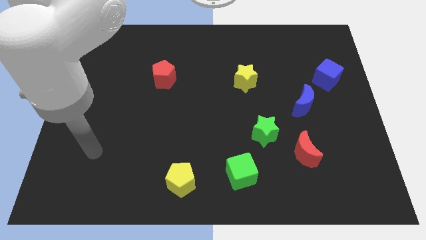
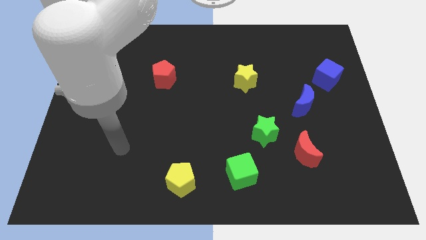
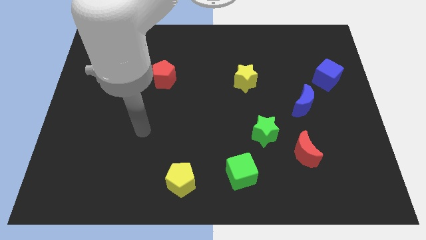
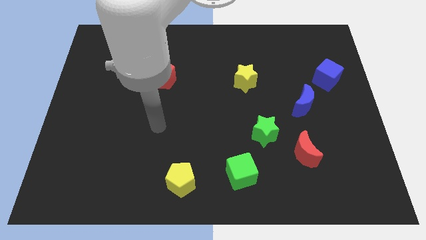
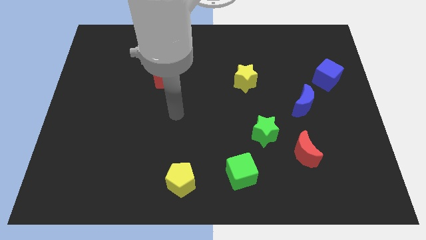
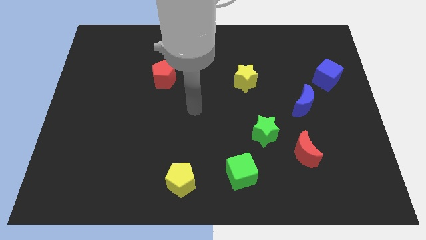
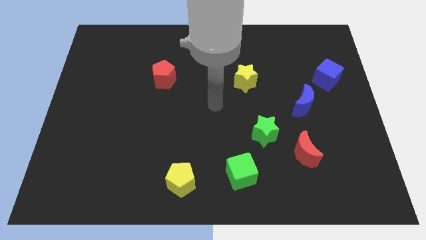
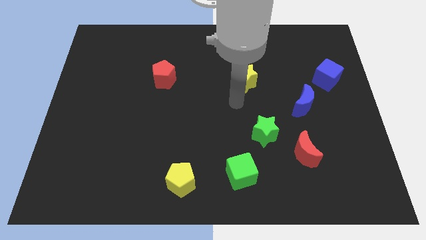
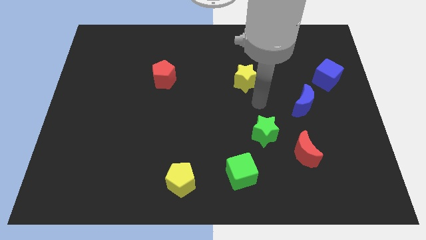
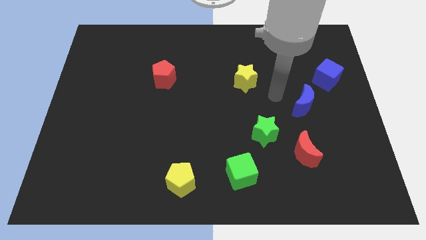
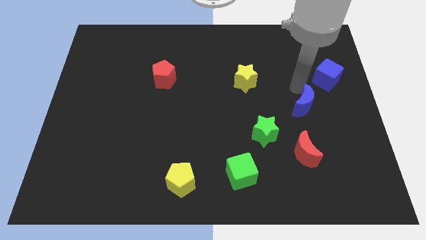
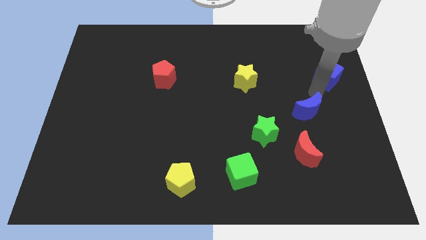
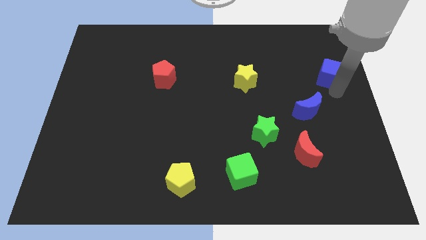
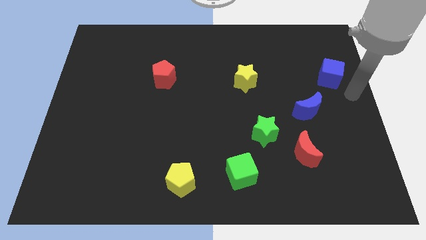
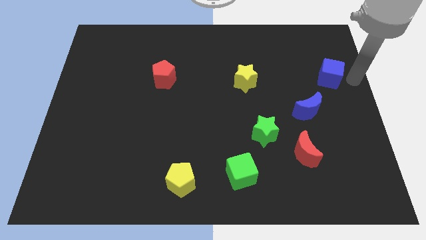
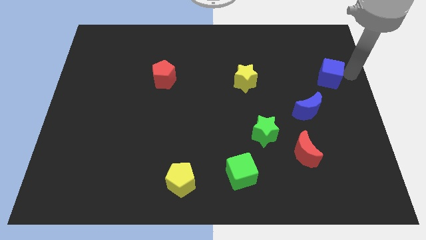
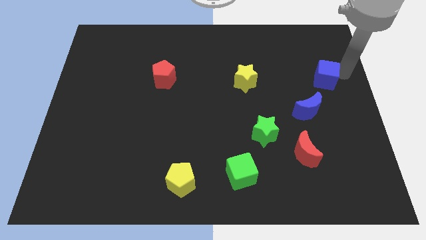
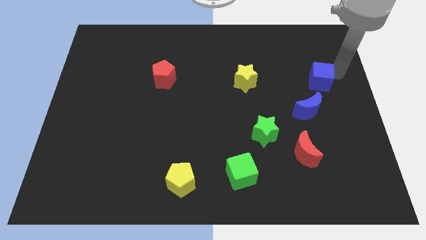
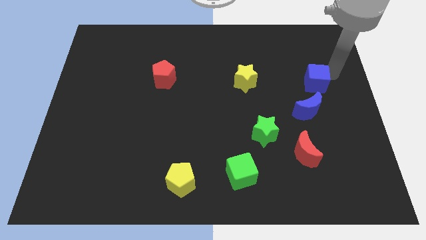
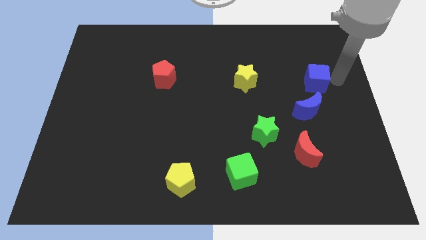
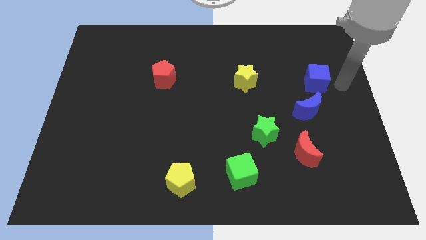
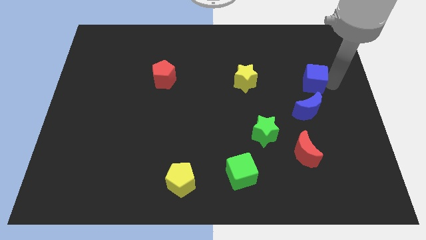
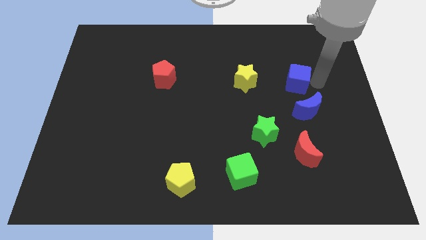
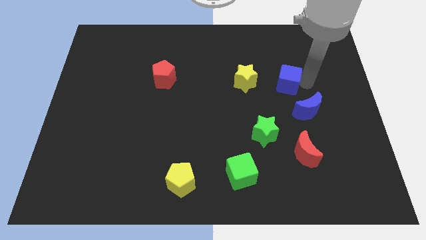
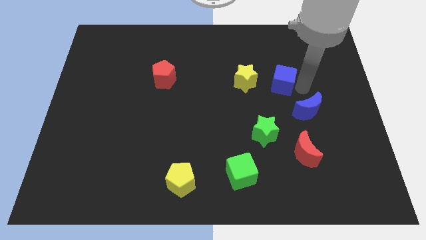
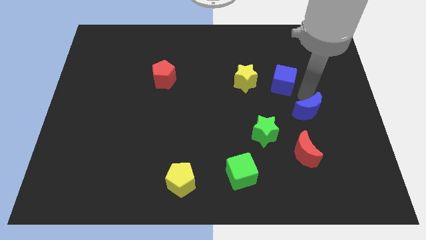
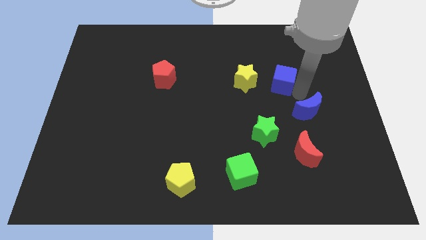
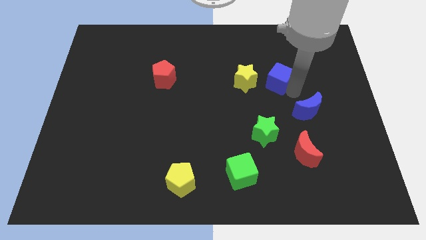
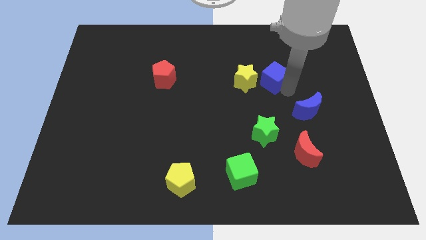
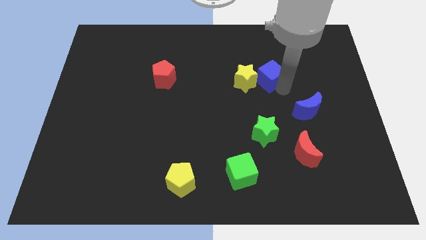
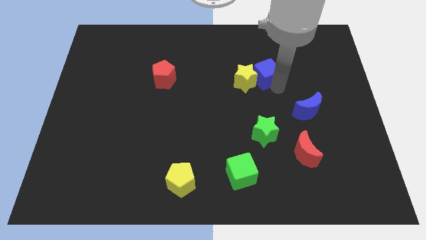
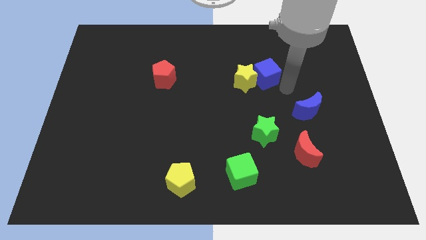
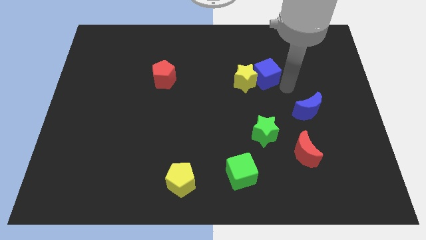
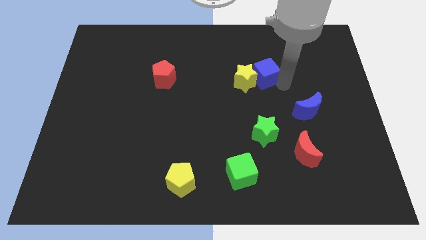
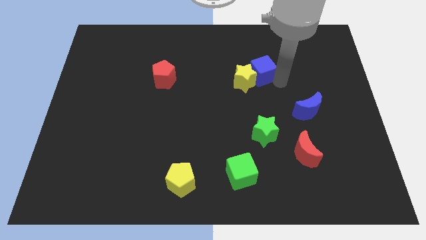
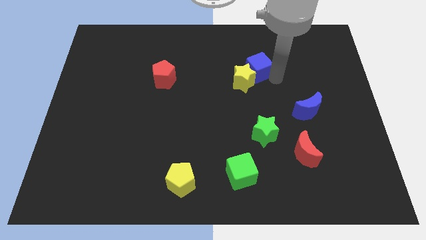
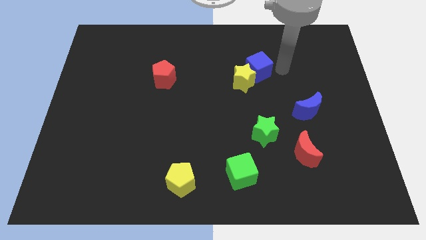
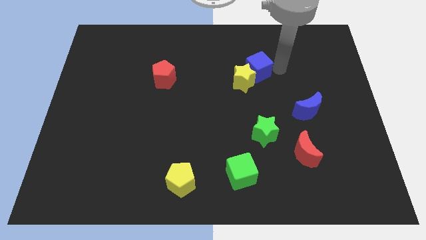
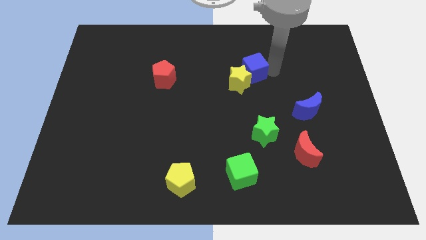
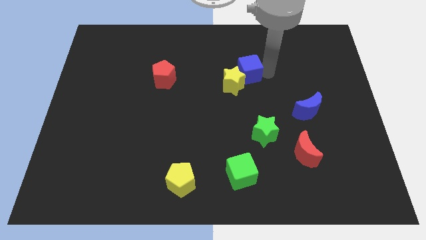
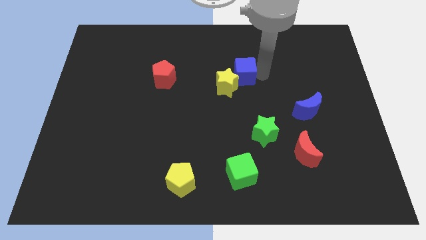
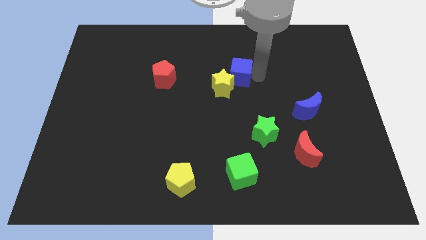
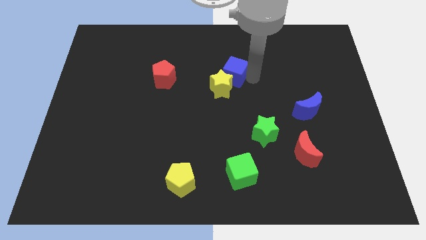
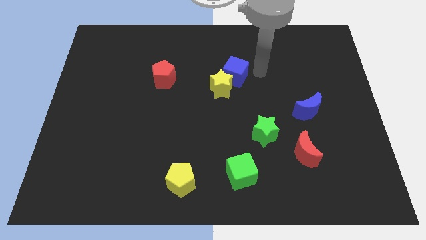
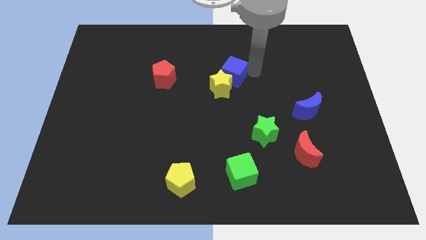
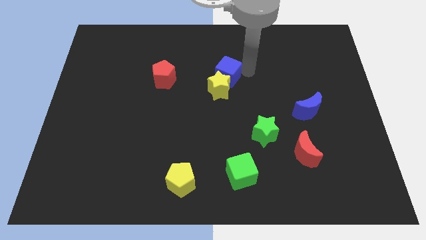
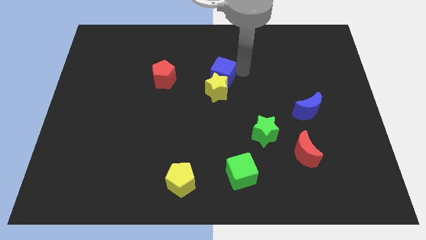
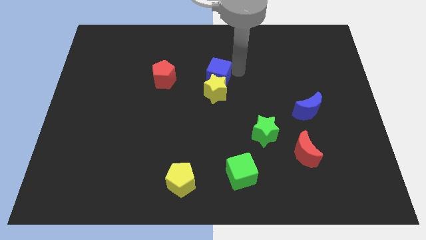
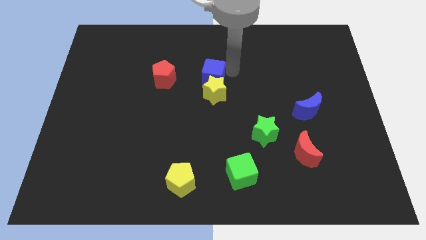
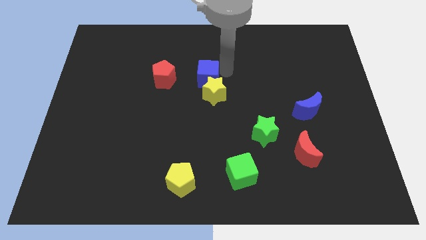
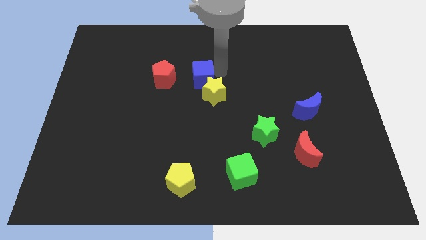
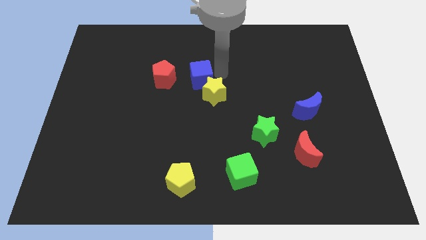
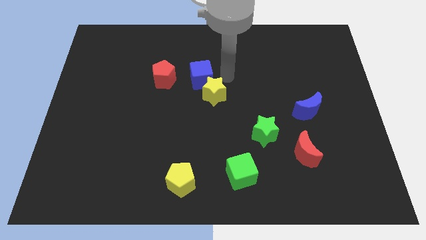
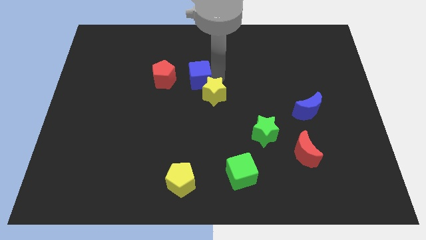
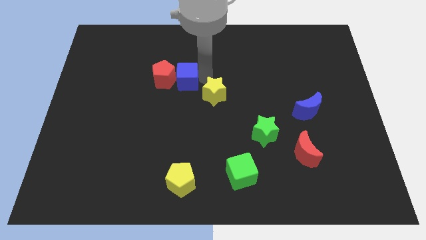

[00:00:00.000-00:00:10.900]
move the blue cube next to the red pentagon

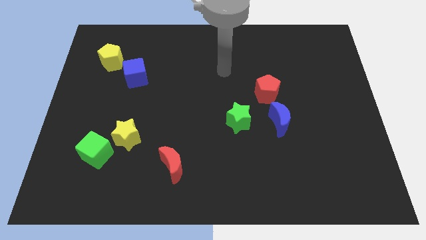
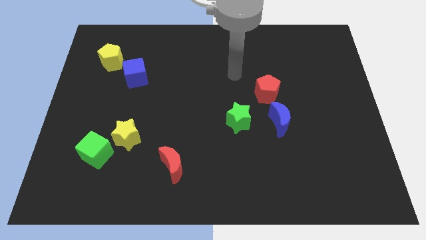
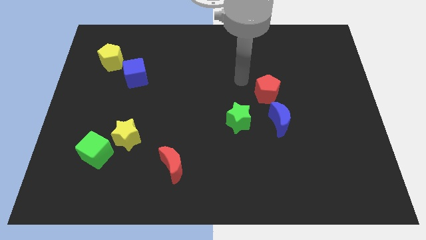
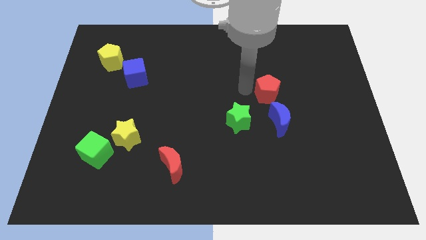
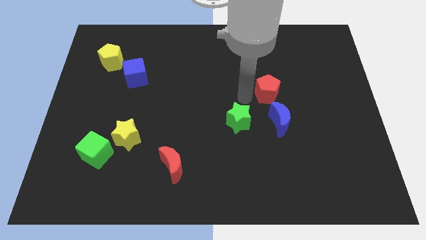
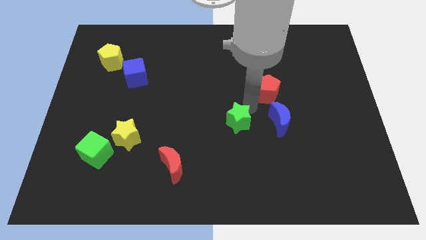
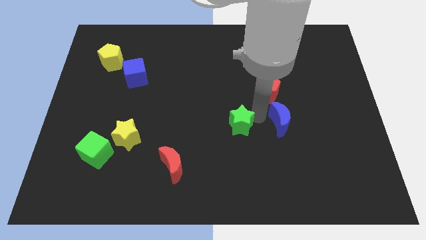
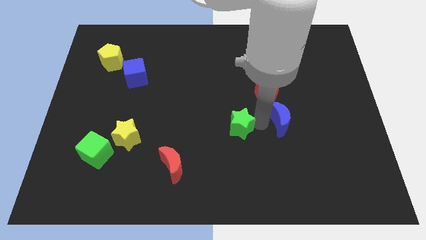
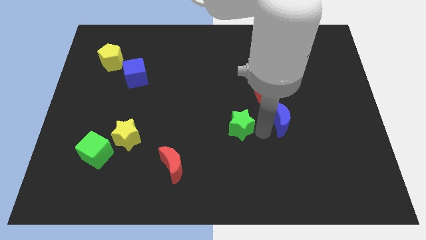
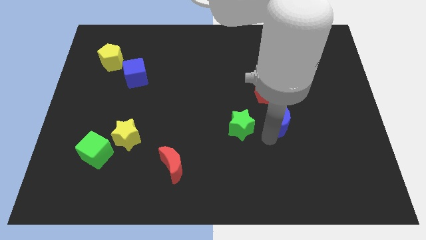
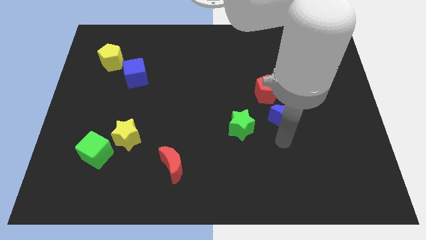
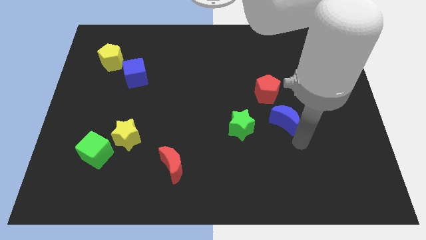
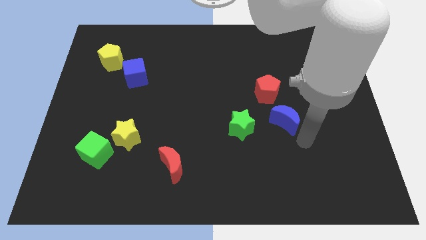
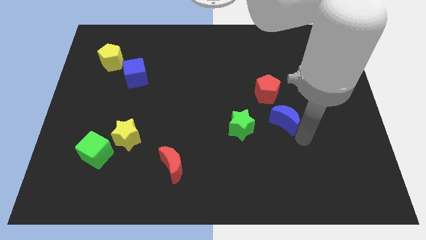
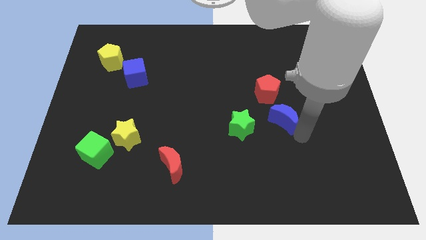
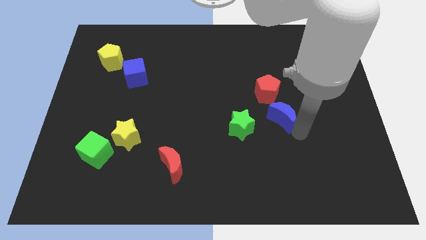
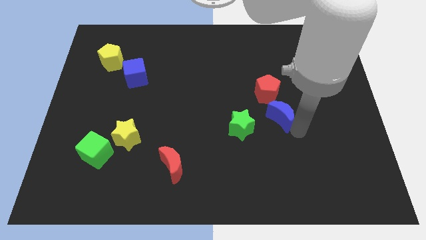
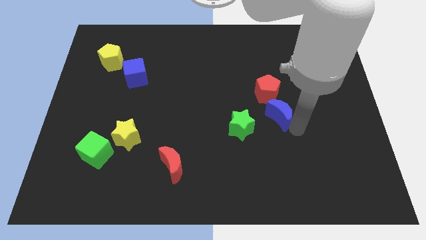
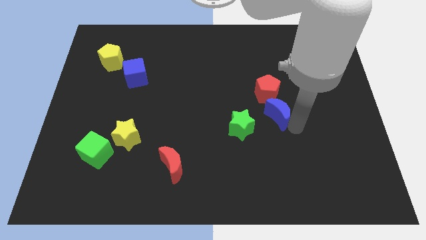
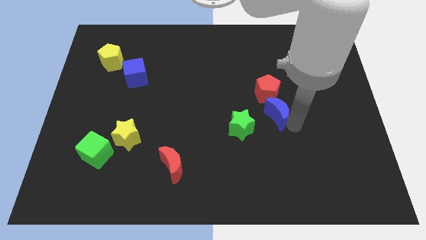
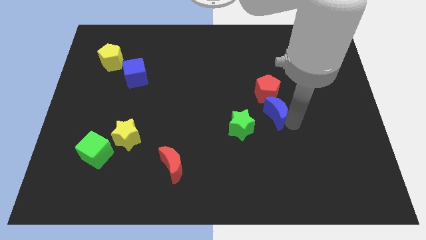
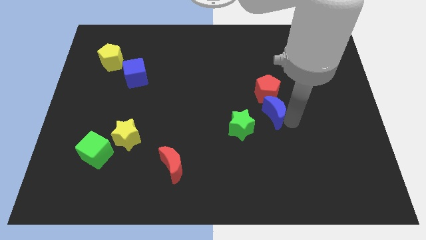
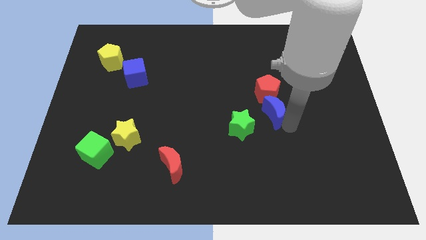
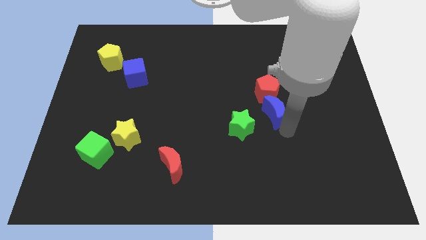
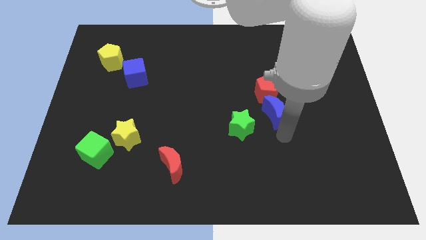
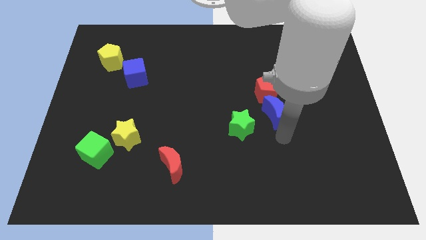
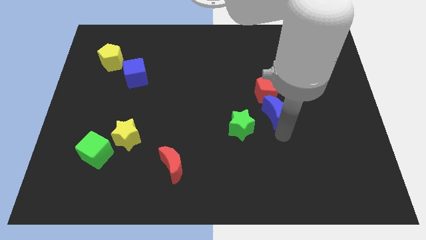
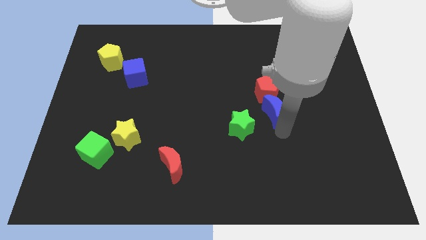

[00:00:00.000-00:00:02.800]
put the blue moon to the red pentagon
